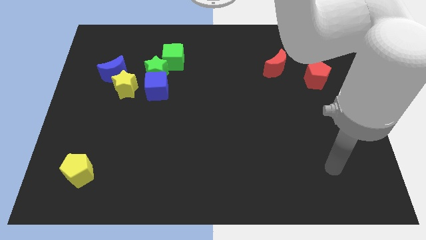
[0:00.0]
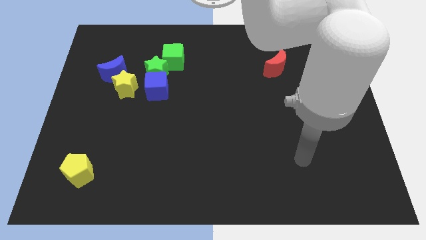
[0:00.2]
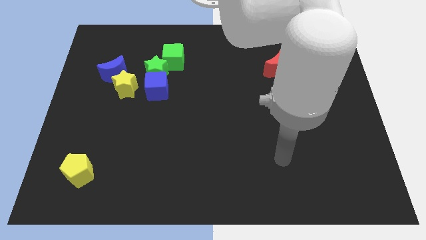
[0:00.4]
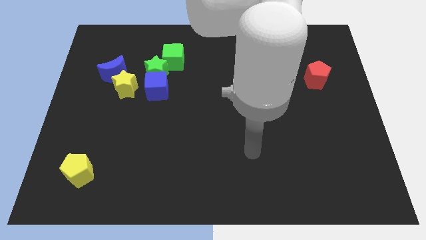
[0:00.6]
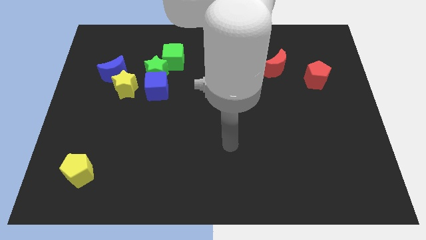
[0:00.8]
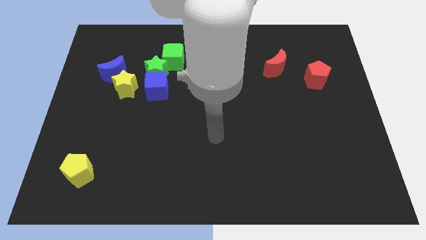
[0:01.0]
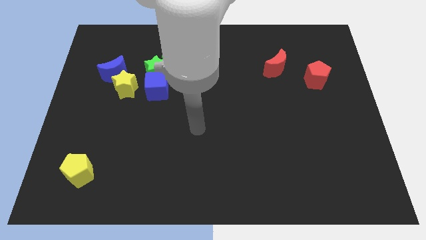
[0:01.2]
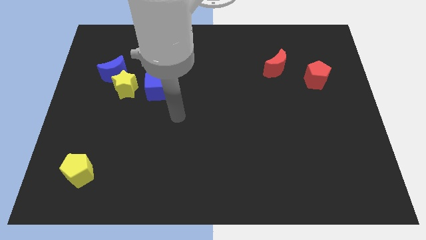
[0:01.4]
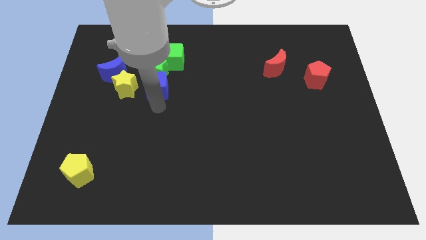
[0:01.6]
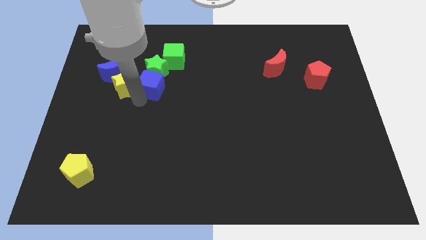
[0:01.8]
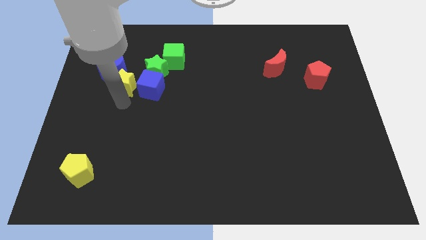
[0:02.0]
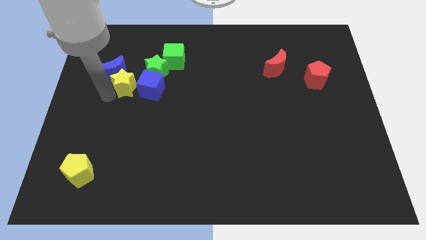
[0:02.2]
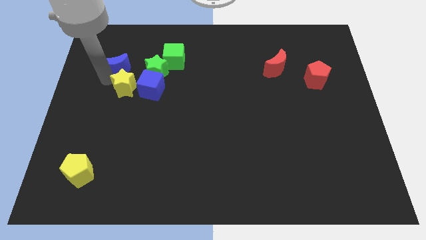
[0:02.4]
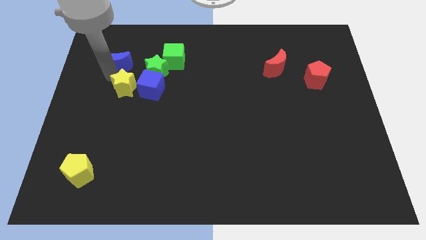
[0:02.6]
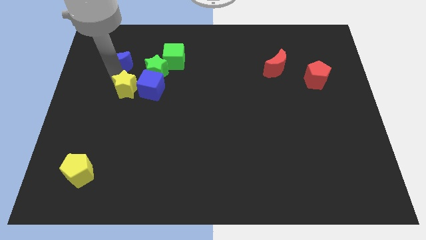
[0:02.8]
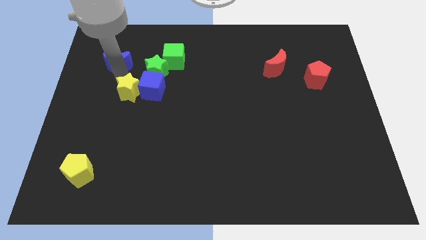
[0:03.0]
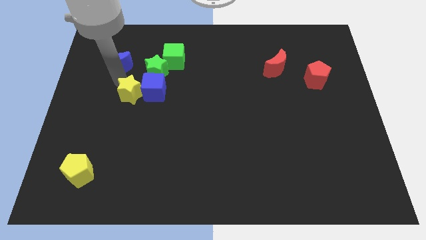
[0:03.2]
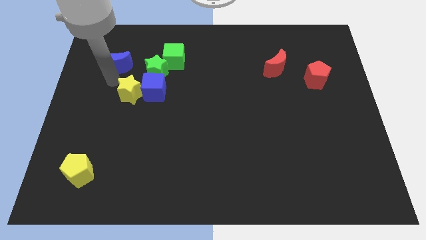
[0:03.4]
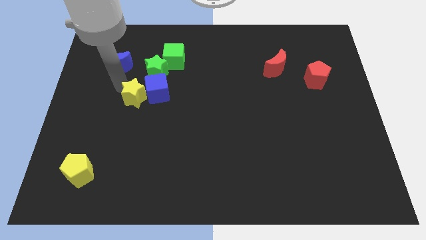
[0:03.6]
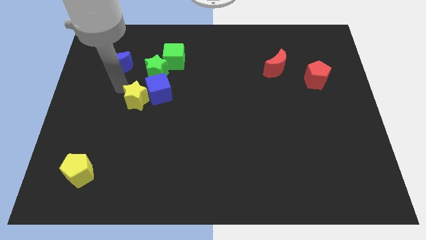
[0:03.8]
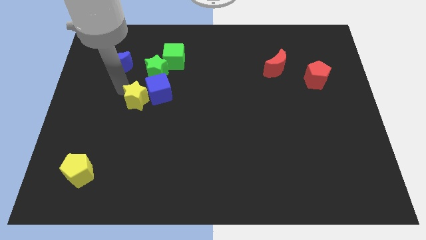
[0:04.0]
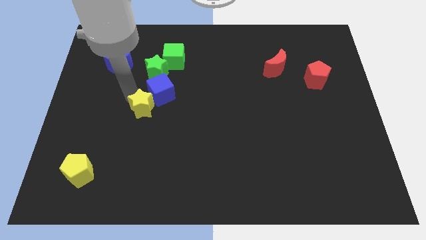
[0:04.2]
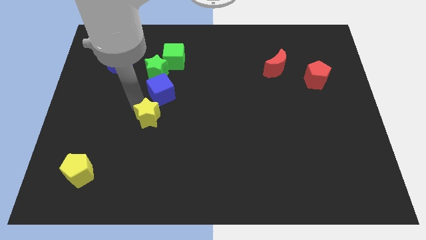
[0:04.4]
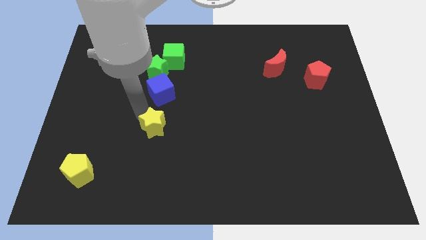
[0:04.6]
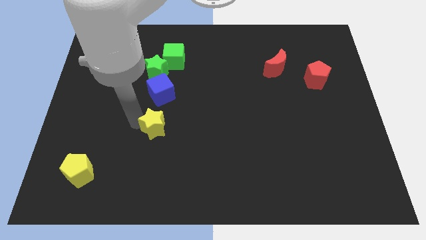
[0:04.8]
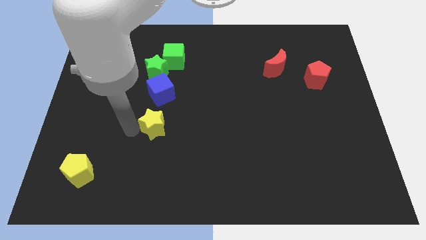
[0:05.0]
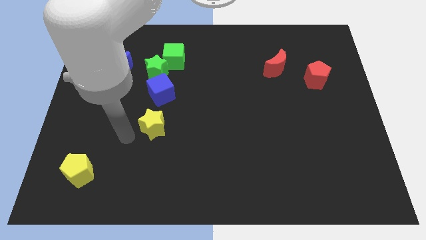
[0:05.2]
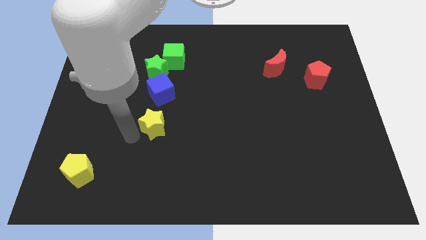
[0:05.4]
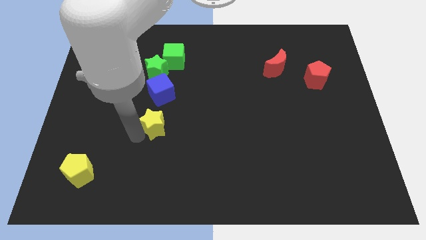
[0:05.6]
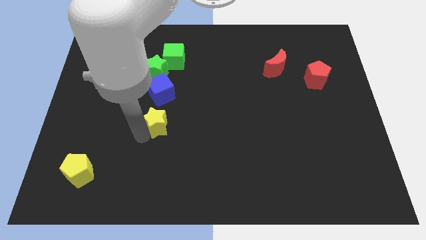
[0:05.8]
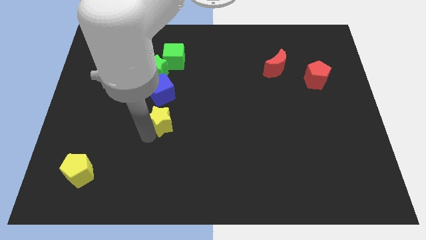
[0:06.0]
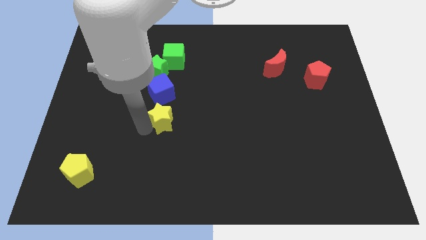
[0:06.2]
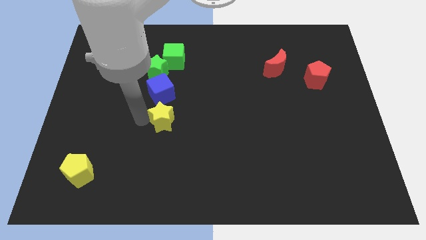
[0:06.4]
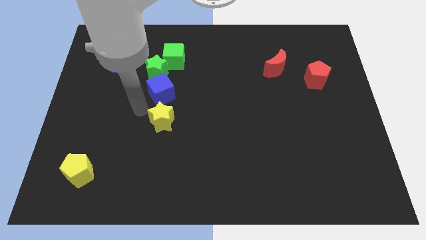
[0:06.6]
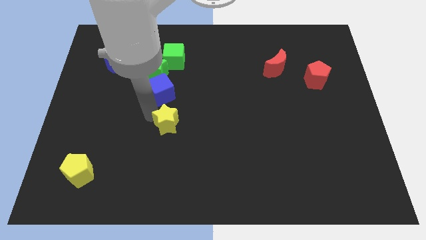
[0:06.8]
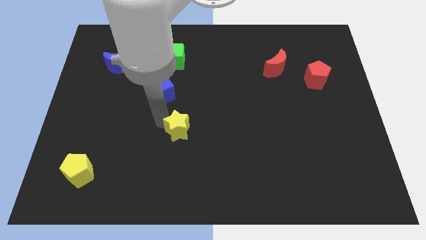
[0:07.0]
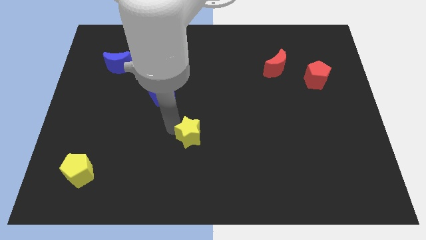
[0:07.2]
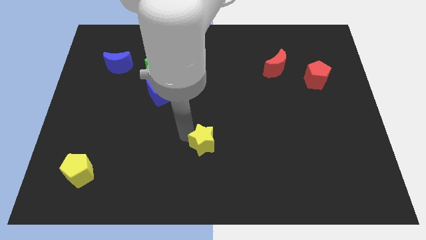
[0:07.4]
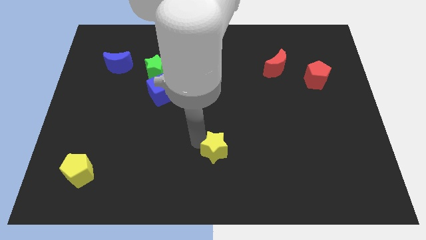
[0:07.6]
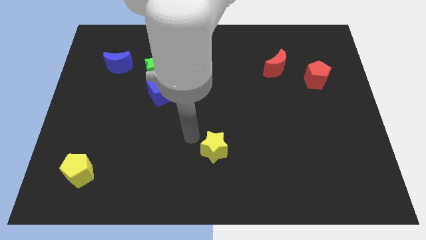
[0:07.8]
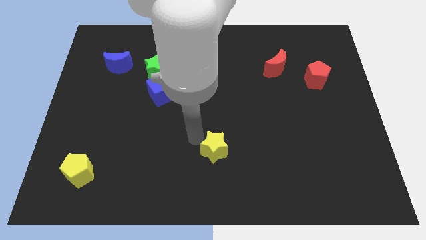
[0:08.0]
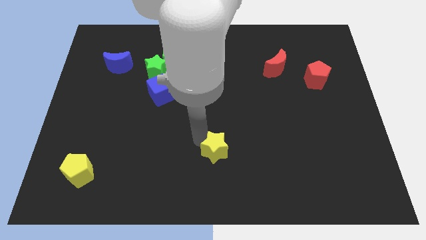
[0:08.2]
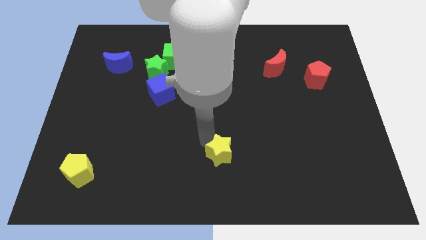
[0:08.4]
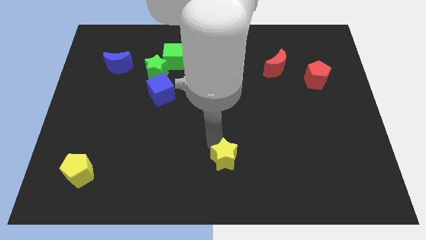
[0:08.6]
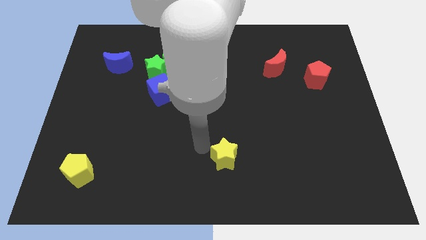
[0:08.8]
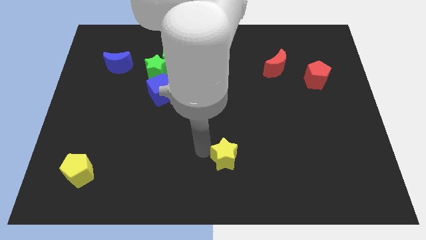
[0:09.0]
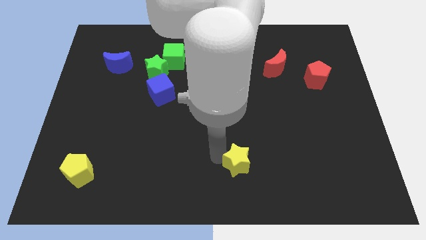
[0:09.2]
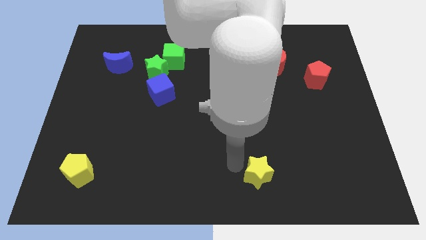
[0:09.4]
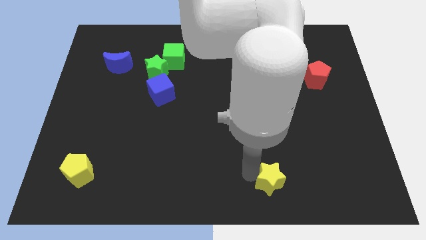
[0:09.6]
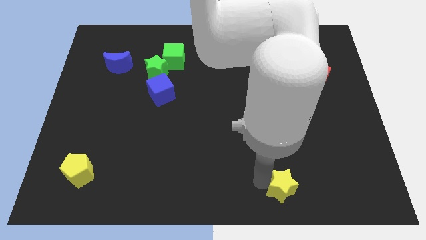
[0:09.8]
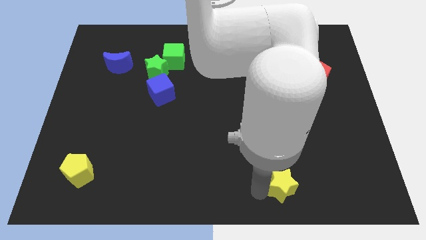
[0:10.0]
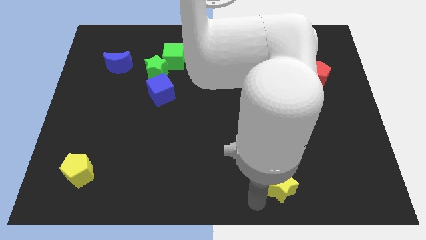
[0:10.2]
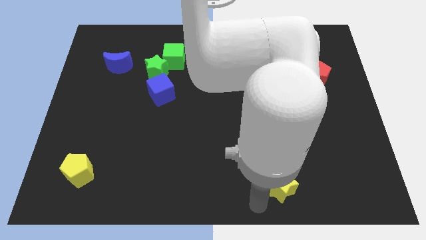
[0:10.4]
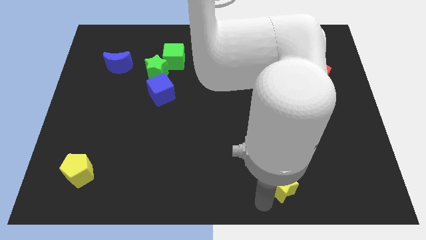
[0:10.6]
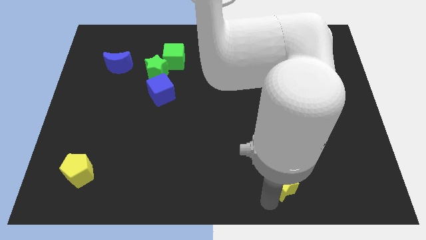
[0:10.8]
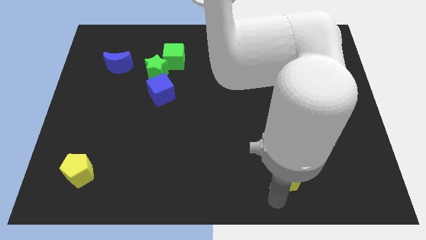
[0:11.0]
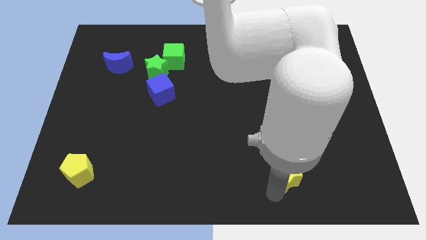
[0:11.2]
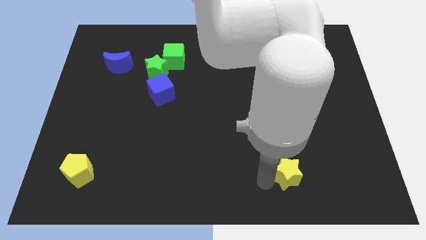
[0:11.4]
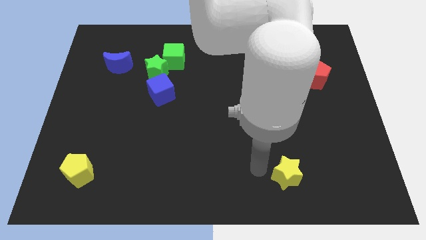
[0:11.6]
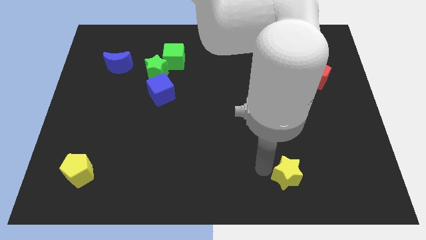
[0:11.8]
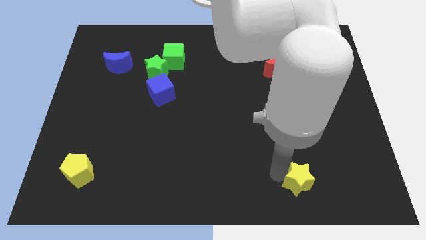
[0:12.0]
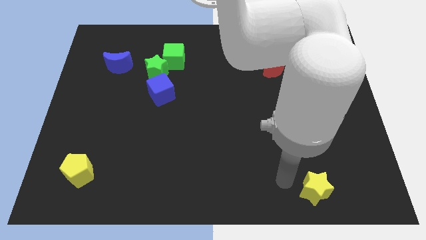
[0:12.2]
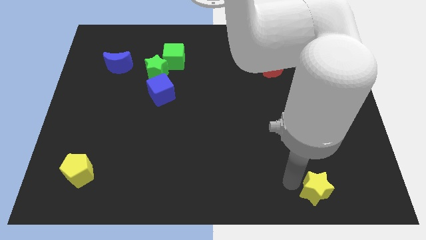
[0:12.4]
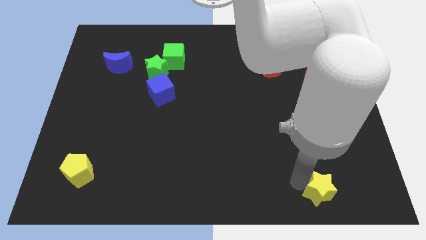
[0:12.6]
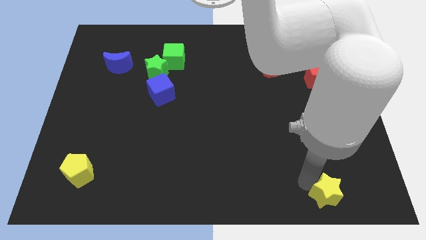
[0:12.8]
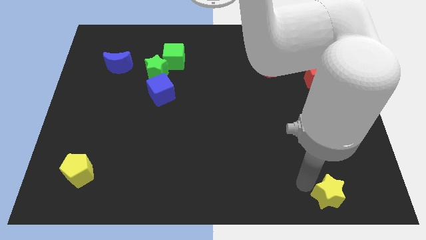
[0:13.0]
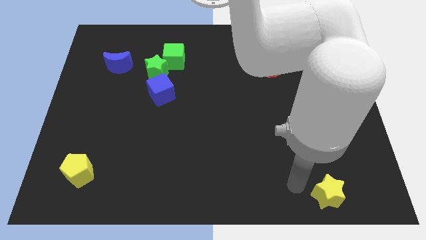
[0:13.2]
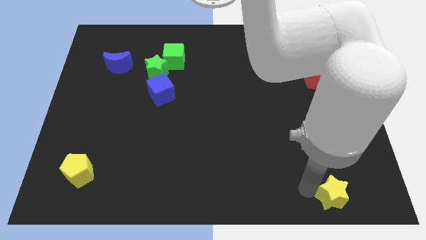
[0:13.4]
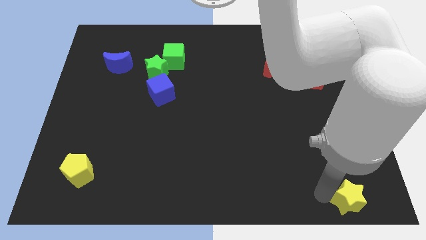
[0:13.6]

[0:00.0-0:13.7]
push the yellow star to the bottom right

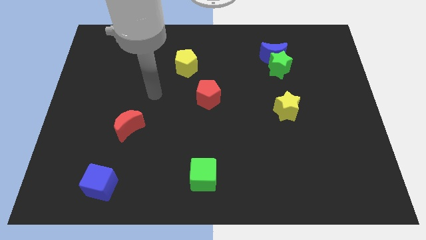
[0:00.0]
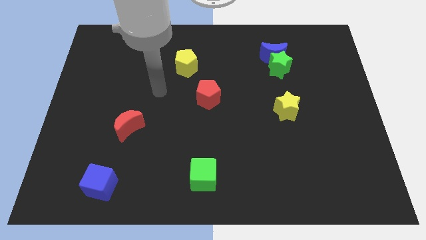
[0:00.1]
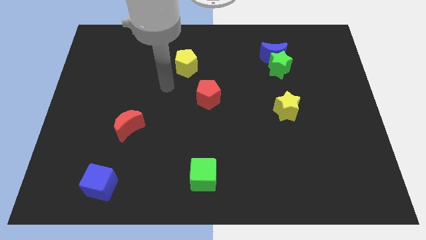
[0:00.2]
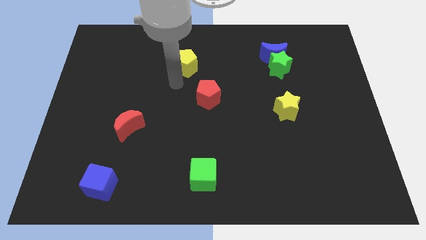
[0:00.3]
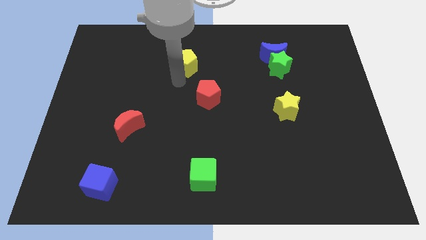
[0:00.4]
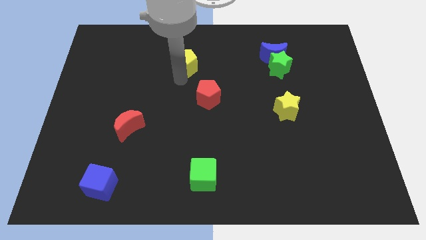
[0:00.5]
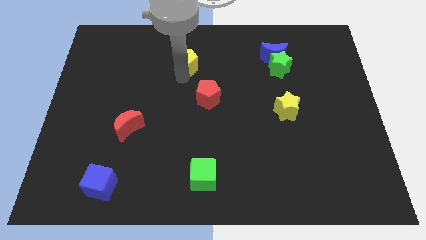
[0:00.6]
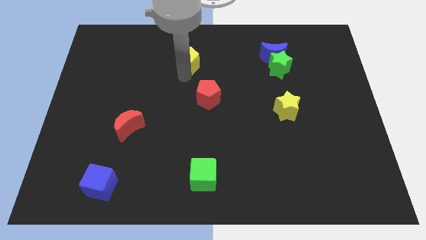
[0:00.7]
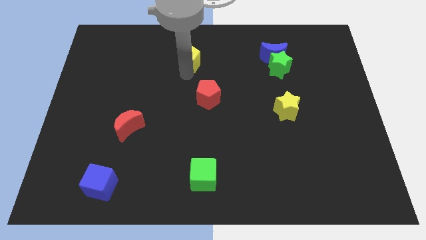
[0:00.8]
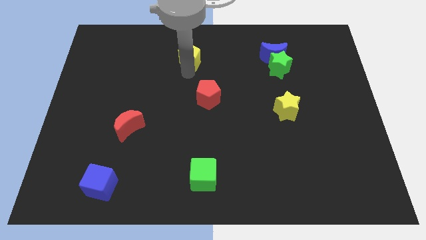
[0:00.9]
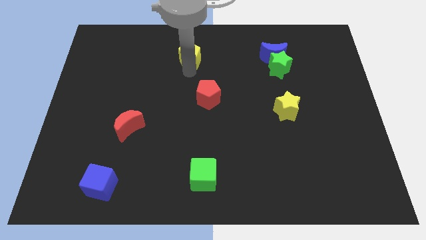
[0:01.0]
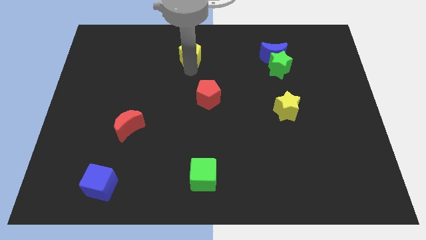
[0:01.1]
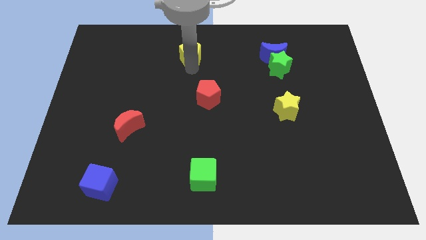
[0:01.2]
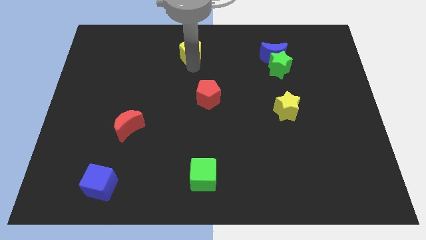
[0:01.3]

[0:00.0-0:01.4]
put the yellow pentagon to the top

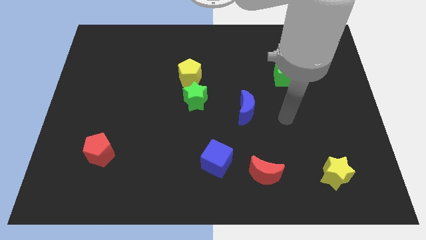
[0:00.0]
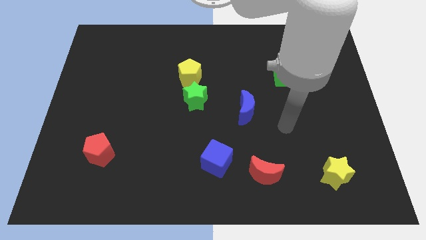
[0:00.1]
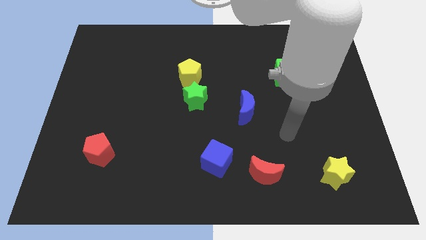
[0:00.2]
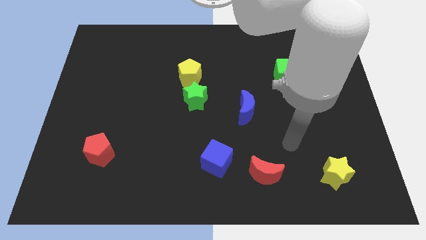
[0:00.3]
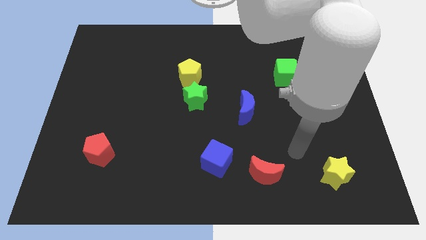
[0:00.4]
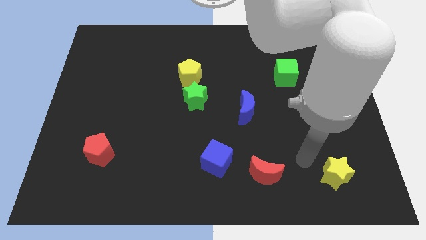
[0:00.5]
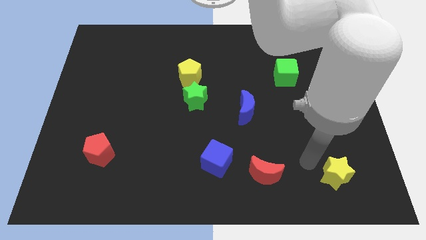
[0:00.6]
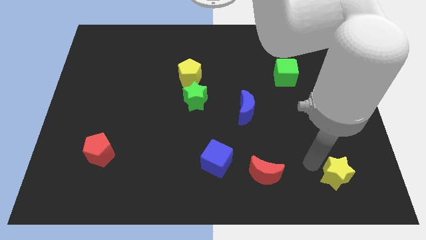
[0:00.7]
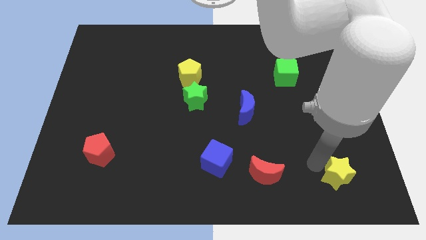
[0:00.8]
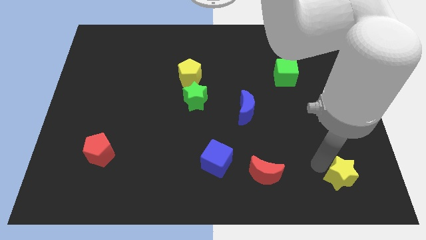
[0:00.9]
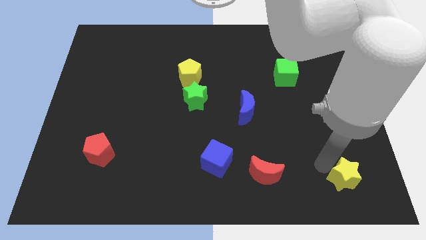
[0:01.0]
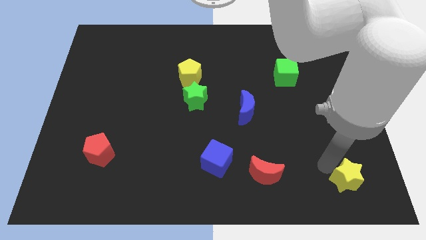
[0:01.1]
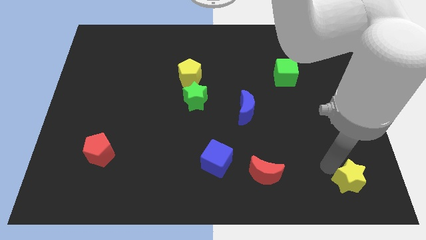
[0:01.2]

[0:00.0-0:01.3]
push the yellow star to the bottom right corner
